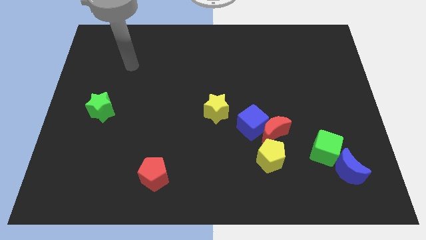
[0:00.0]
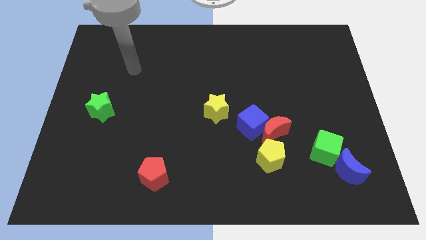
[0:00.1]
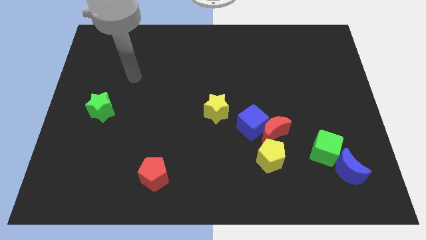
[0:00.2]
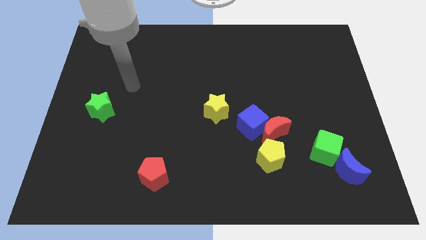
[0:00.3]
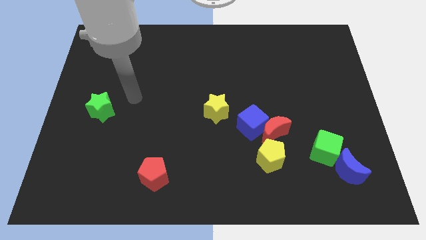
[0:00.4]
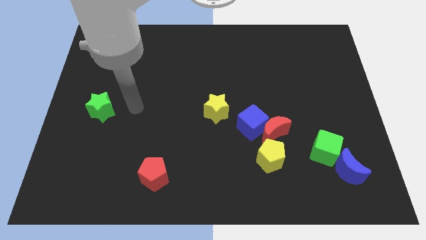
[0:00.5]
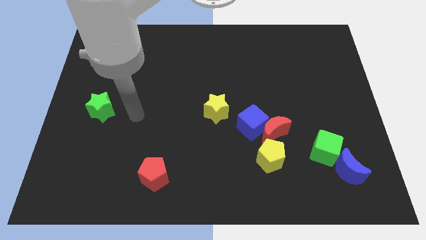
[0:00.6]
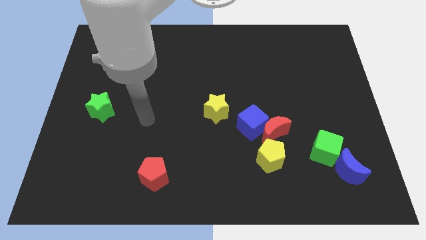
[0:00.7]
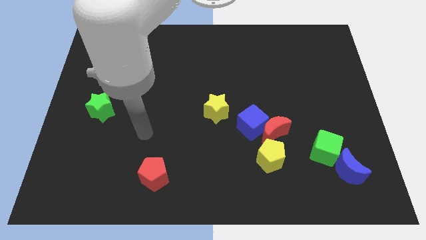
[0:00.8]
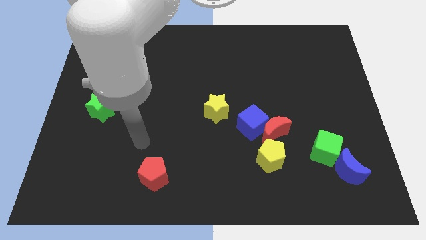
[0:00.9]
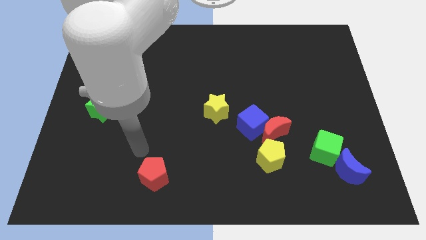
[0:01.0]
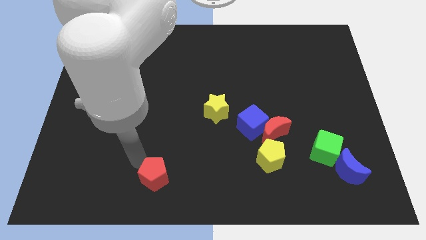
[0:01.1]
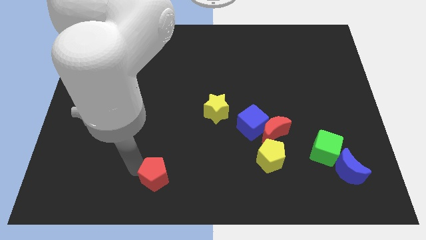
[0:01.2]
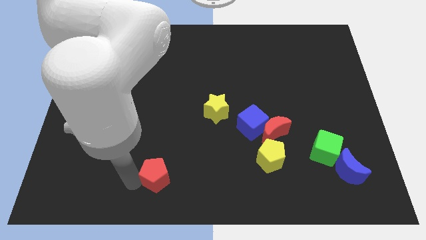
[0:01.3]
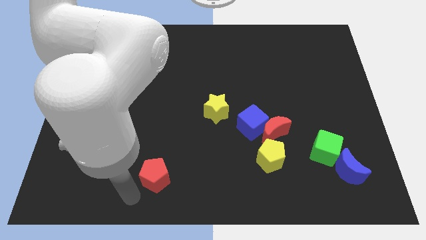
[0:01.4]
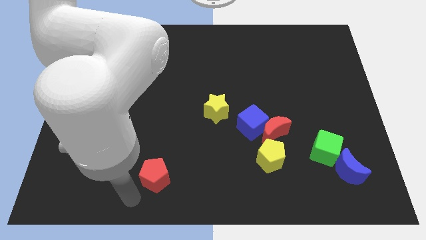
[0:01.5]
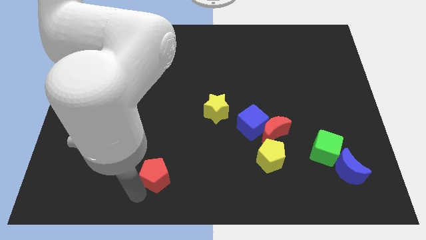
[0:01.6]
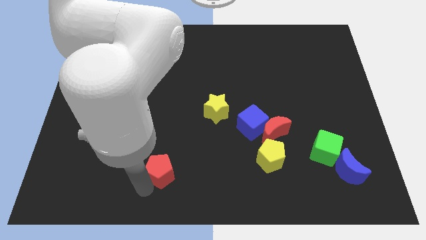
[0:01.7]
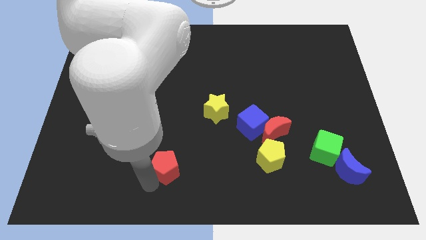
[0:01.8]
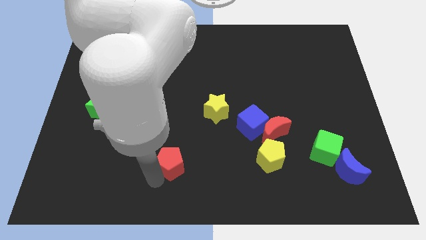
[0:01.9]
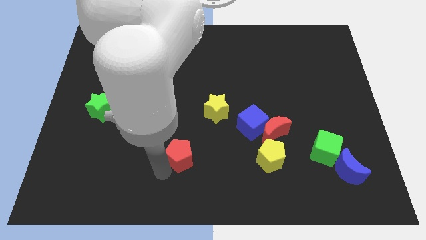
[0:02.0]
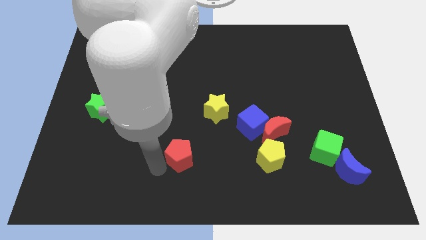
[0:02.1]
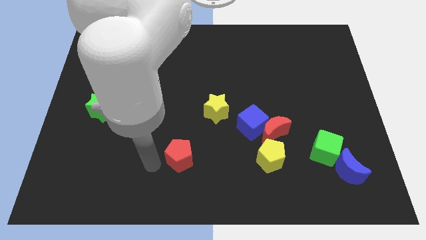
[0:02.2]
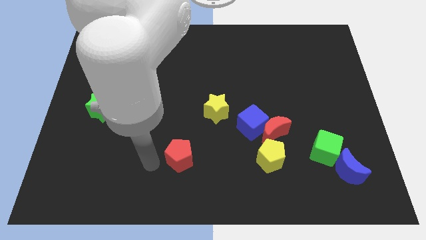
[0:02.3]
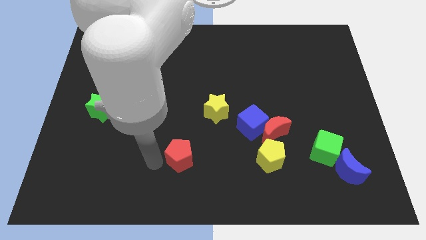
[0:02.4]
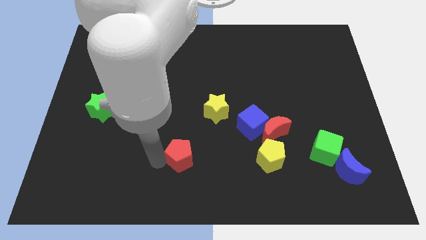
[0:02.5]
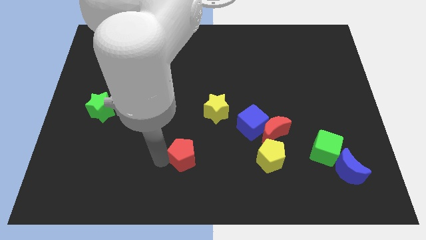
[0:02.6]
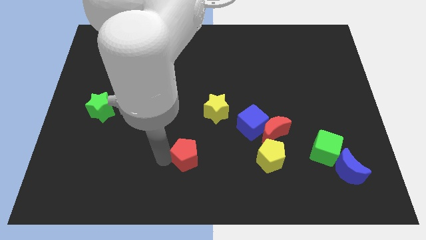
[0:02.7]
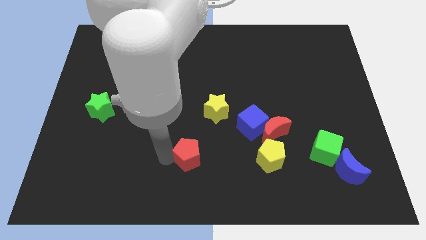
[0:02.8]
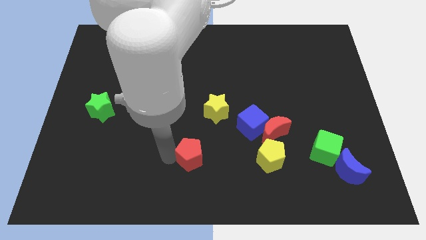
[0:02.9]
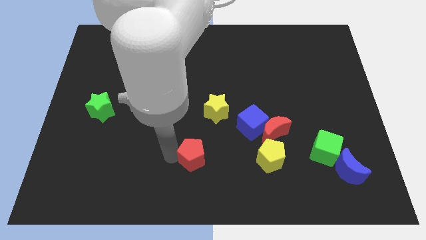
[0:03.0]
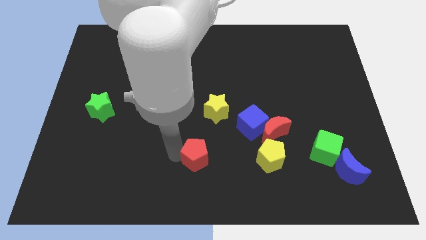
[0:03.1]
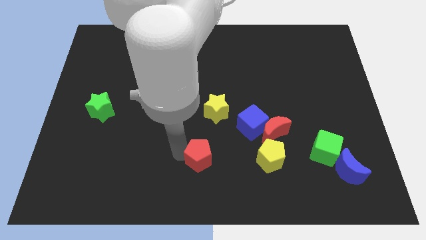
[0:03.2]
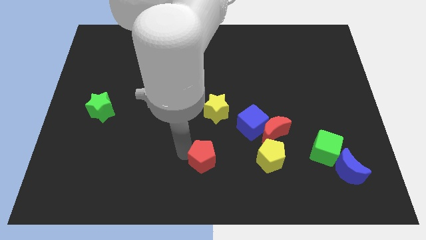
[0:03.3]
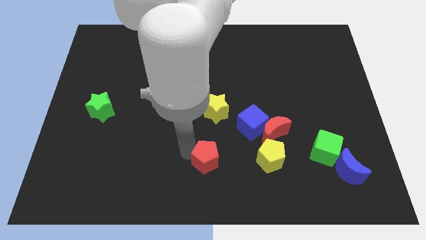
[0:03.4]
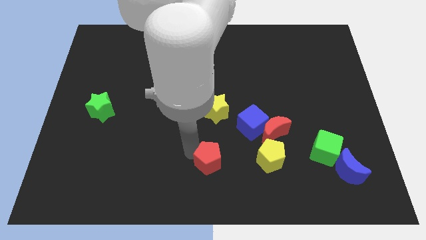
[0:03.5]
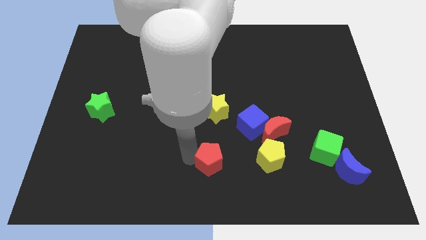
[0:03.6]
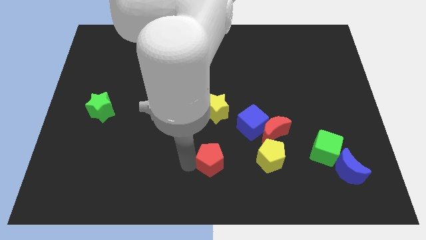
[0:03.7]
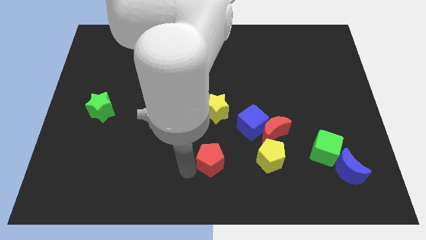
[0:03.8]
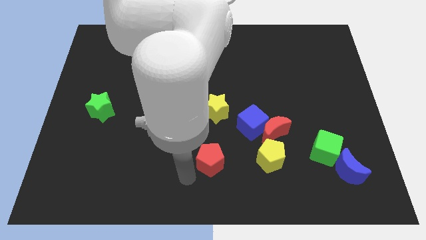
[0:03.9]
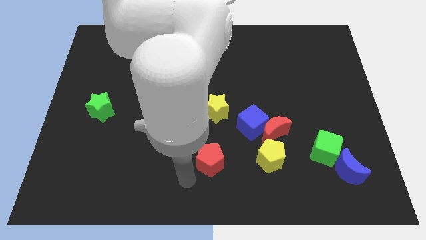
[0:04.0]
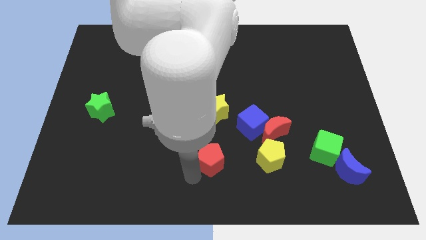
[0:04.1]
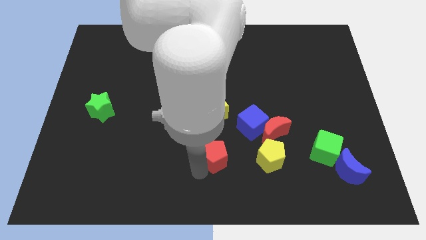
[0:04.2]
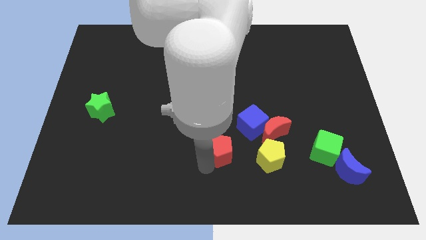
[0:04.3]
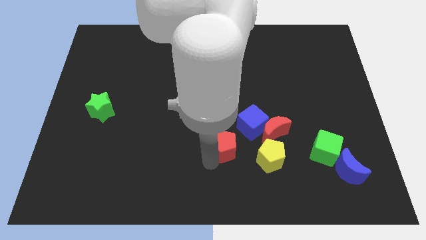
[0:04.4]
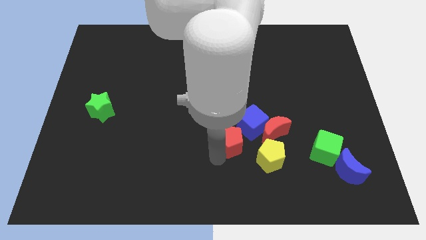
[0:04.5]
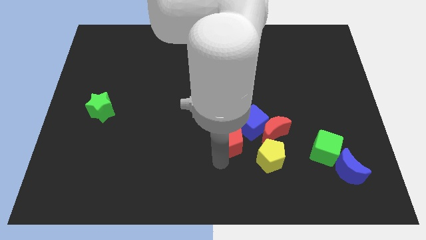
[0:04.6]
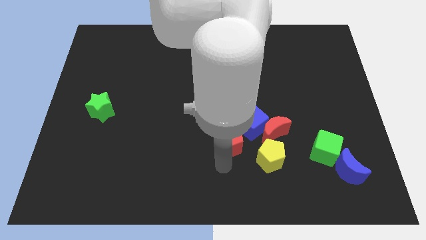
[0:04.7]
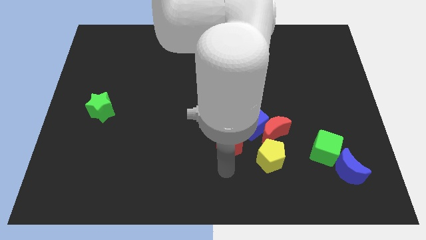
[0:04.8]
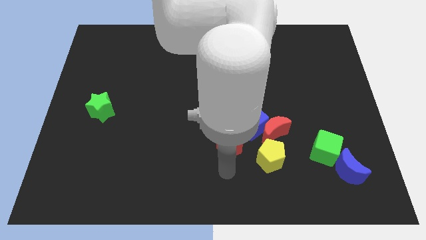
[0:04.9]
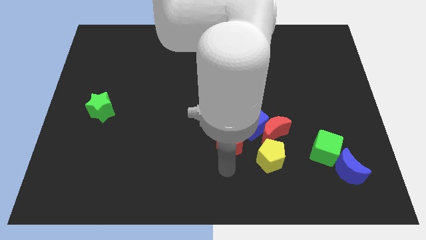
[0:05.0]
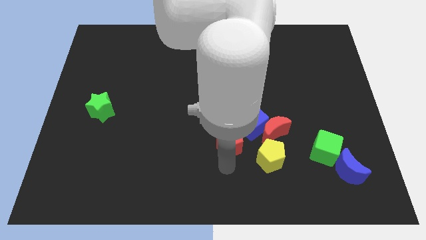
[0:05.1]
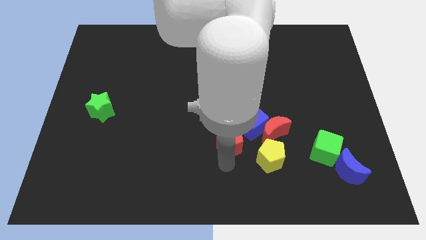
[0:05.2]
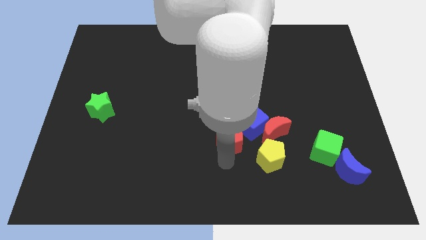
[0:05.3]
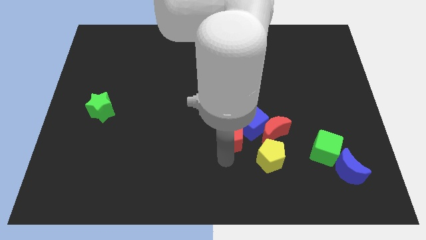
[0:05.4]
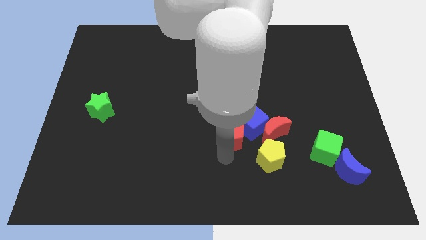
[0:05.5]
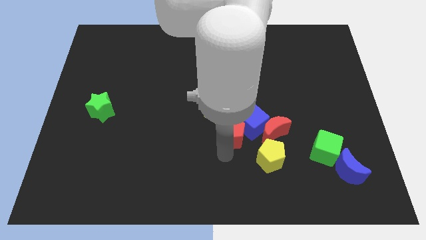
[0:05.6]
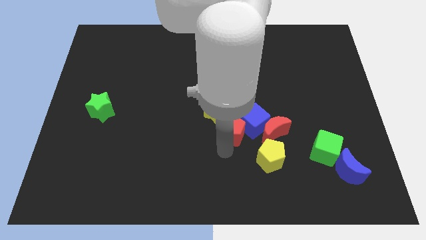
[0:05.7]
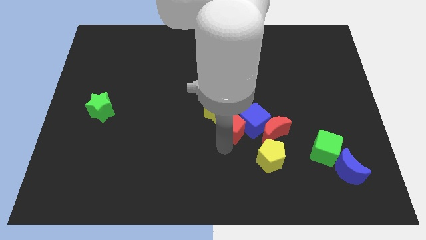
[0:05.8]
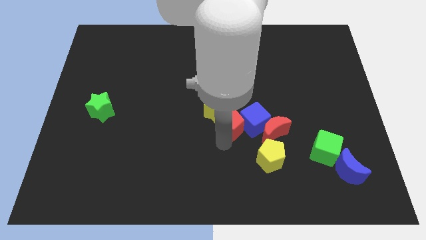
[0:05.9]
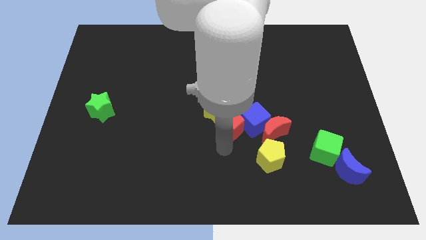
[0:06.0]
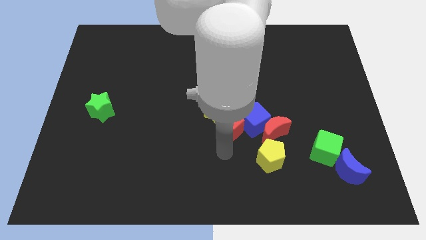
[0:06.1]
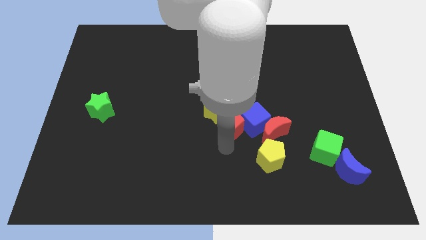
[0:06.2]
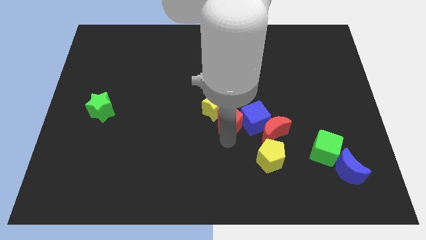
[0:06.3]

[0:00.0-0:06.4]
move the red pentagon diagonally upwards and to the right

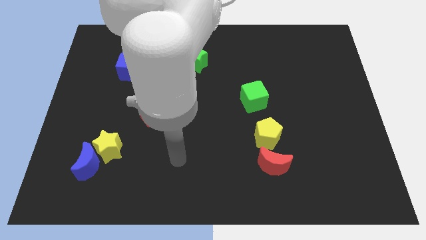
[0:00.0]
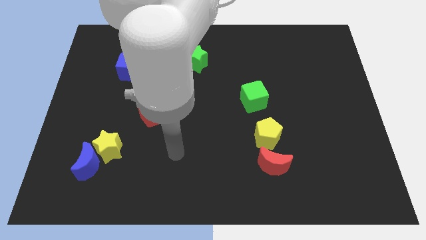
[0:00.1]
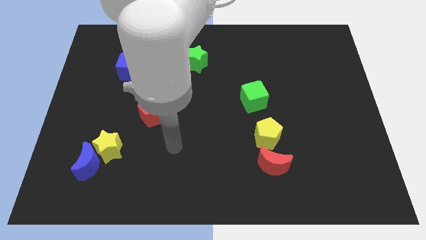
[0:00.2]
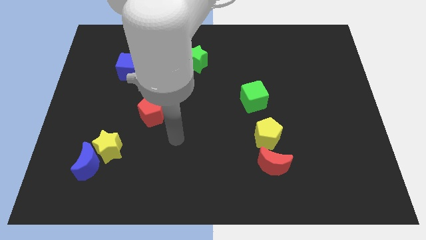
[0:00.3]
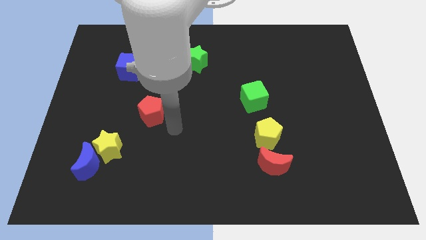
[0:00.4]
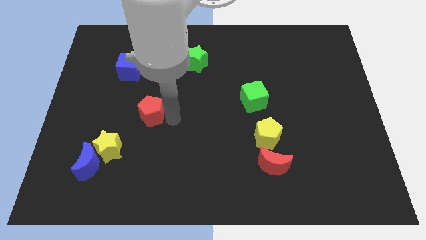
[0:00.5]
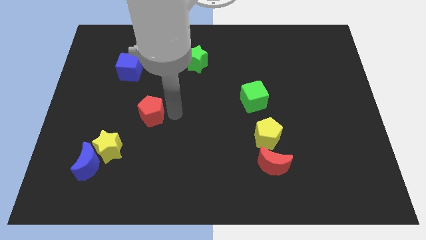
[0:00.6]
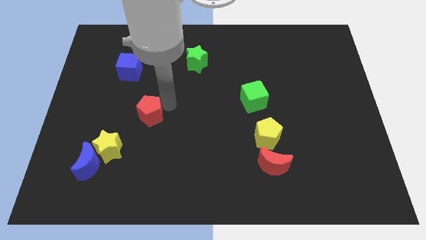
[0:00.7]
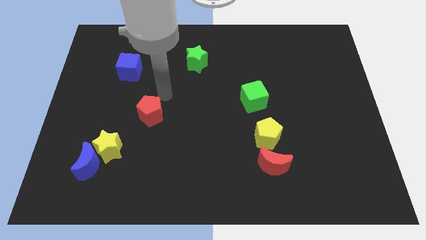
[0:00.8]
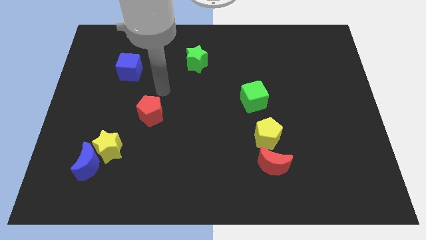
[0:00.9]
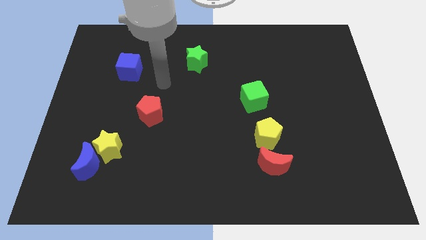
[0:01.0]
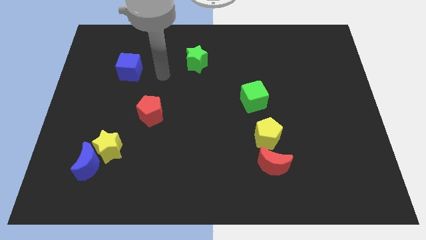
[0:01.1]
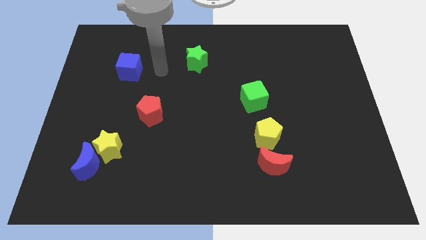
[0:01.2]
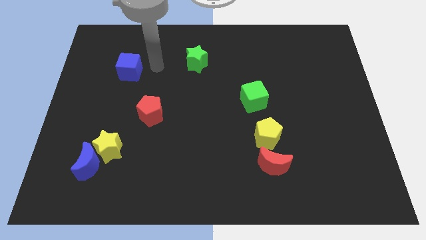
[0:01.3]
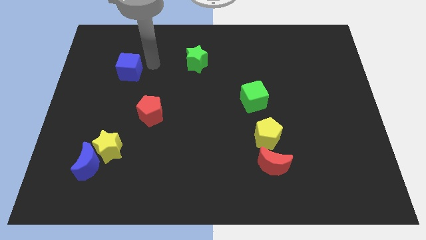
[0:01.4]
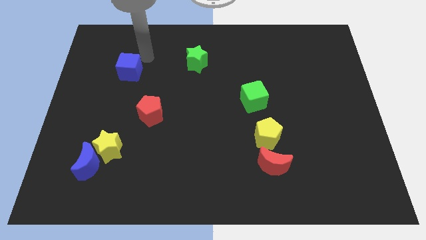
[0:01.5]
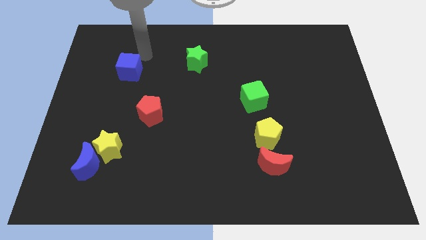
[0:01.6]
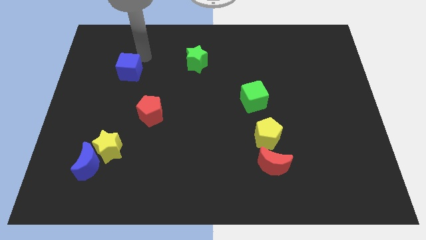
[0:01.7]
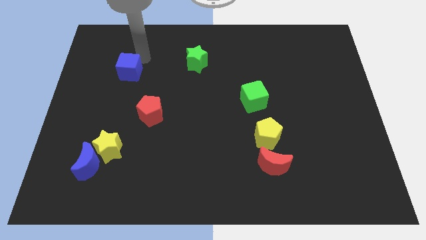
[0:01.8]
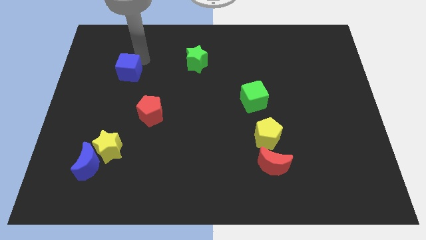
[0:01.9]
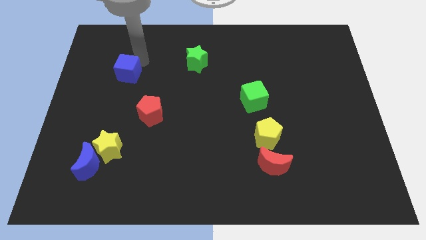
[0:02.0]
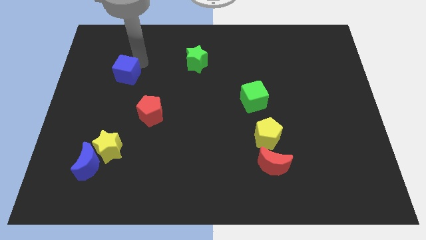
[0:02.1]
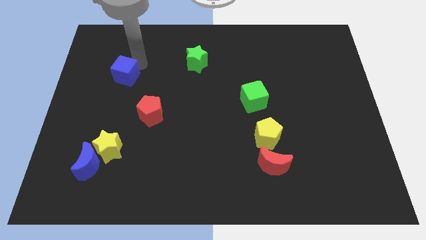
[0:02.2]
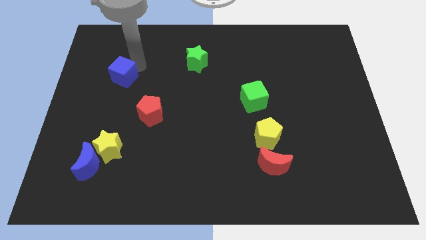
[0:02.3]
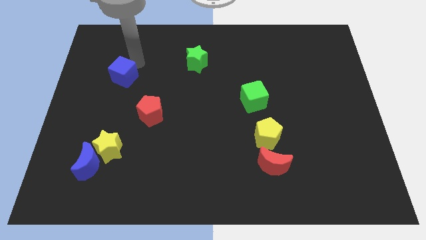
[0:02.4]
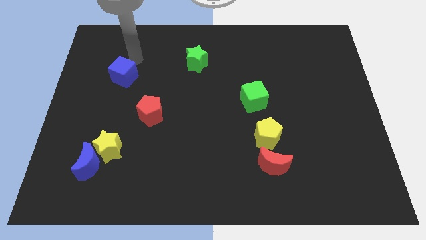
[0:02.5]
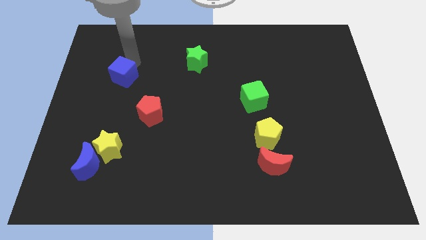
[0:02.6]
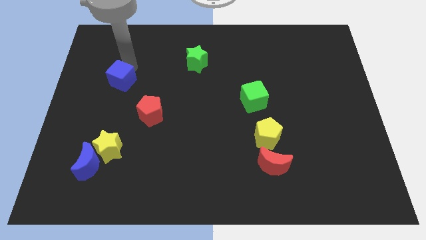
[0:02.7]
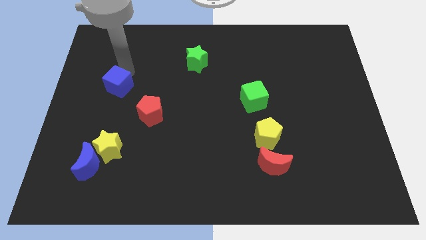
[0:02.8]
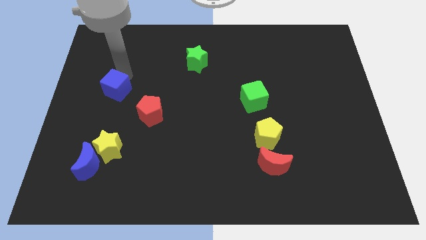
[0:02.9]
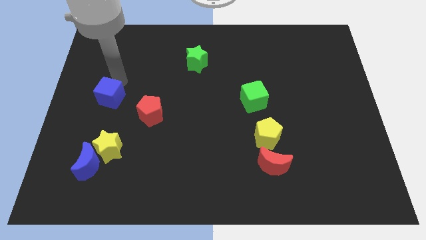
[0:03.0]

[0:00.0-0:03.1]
slide the blue cube a little bit downwards
